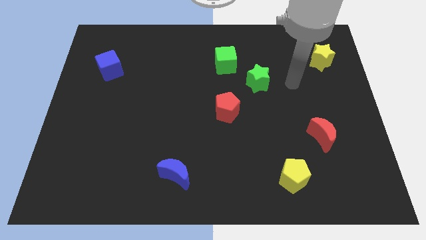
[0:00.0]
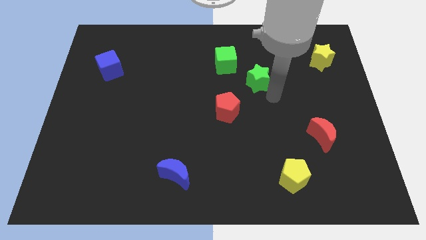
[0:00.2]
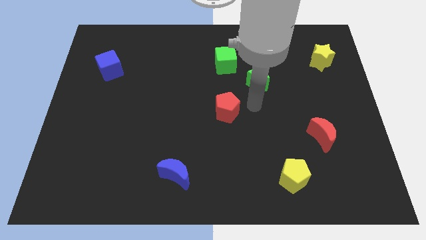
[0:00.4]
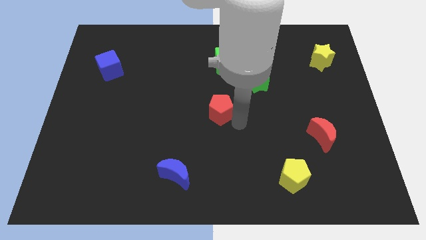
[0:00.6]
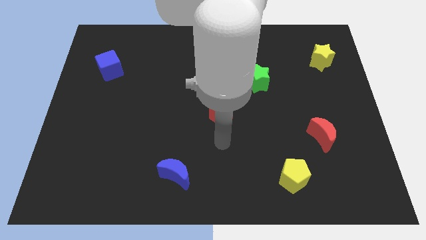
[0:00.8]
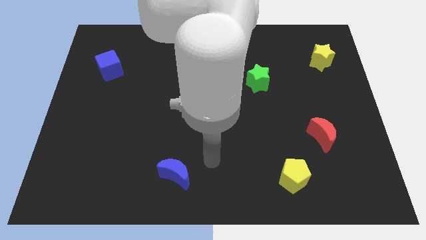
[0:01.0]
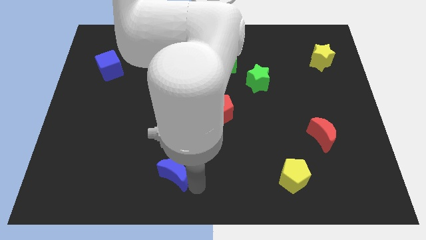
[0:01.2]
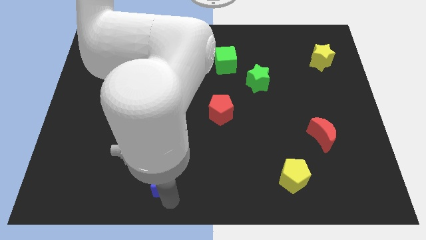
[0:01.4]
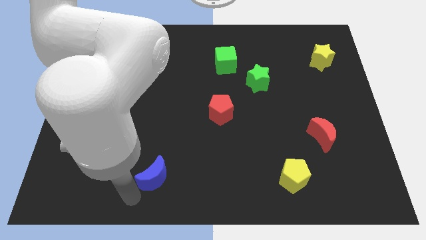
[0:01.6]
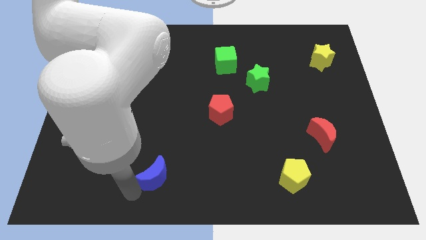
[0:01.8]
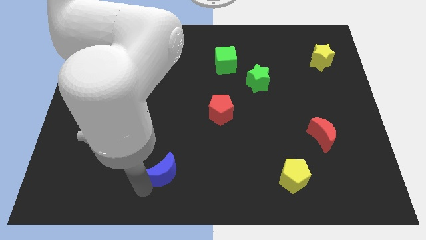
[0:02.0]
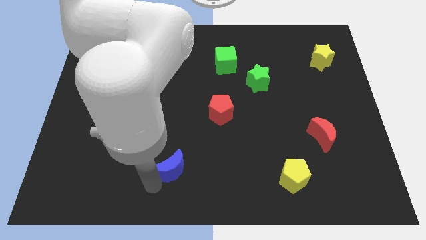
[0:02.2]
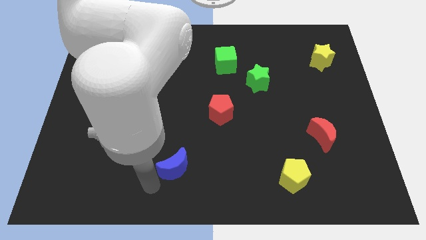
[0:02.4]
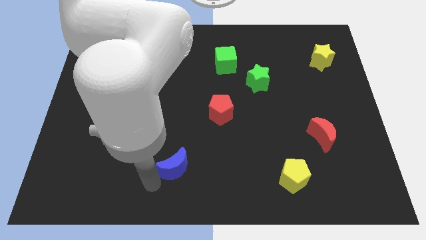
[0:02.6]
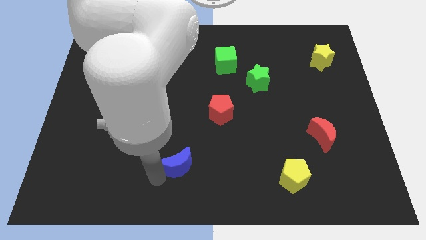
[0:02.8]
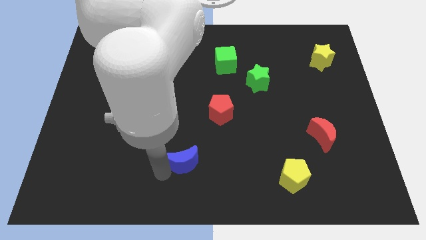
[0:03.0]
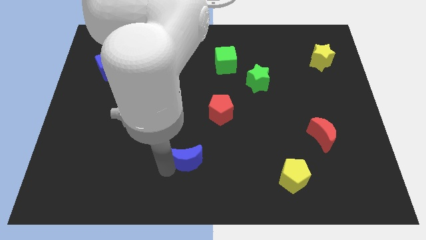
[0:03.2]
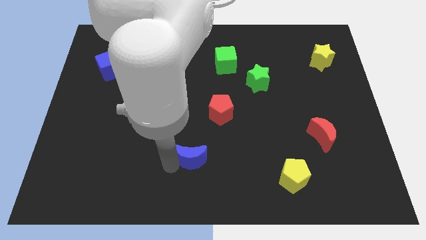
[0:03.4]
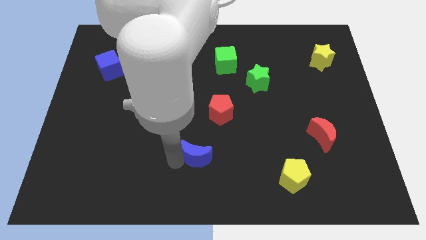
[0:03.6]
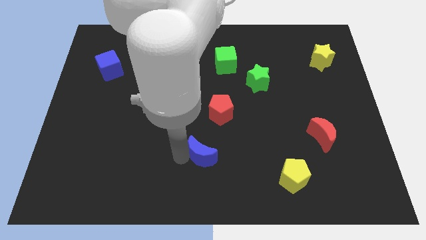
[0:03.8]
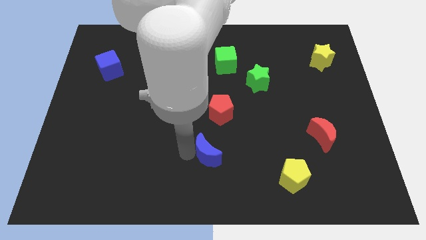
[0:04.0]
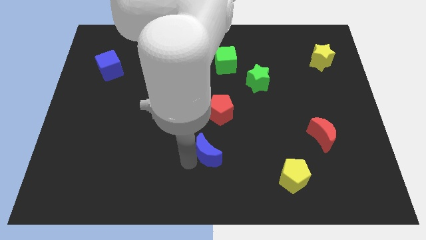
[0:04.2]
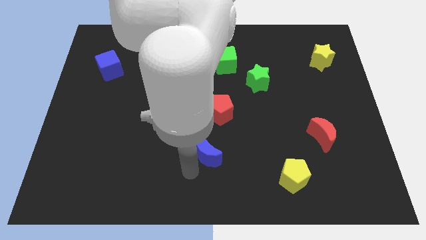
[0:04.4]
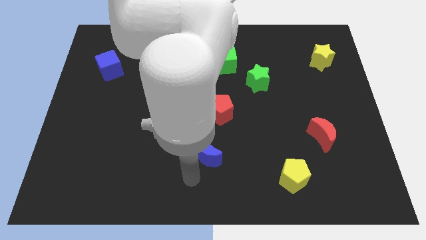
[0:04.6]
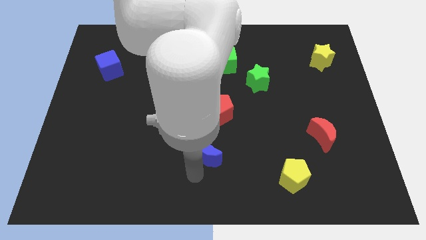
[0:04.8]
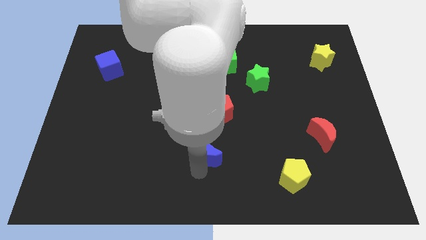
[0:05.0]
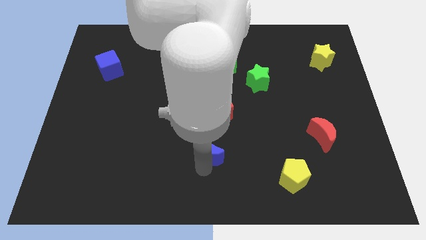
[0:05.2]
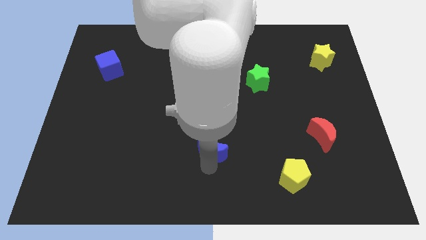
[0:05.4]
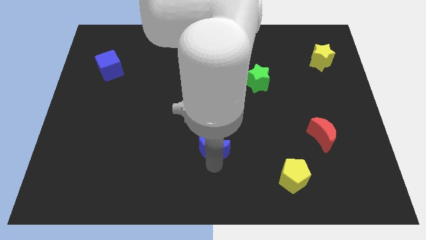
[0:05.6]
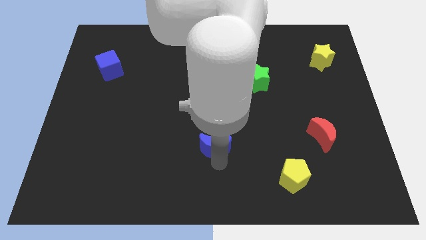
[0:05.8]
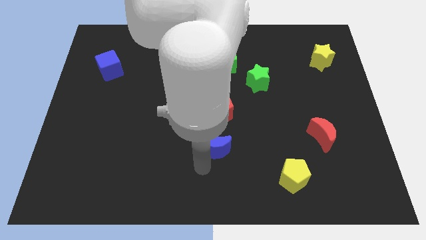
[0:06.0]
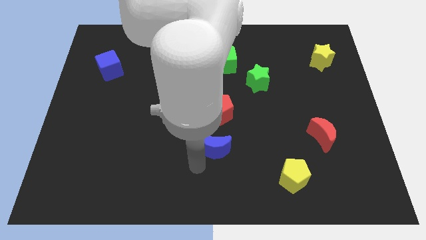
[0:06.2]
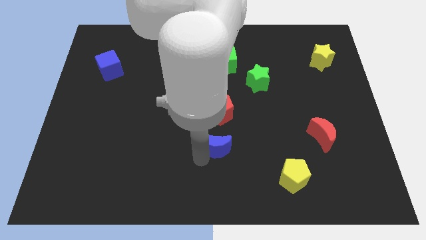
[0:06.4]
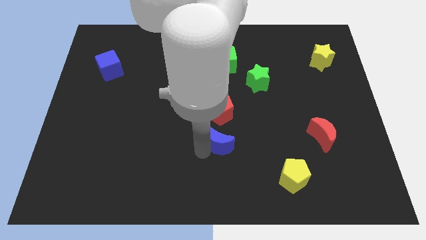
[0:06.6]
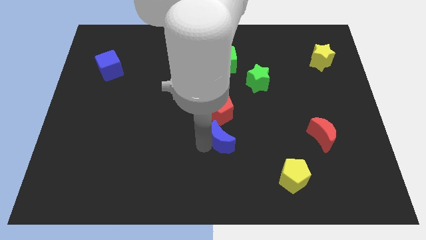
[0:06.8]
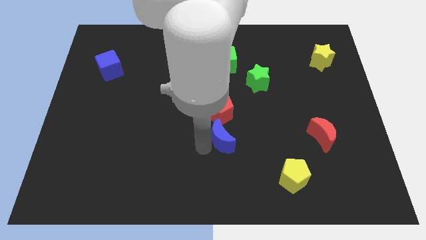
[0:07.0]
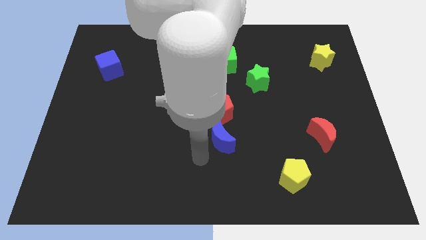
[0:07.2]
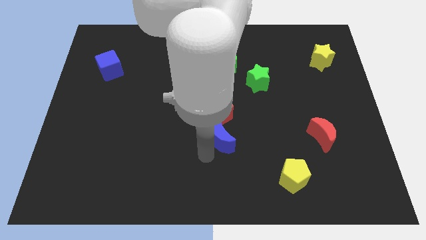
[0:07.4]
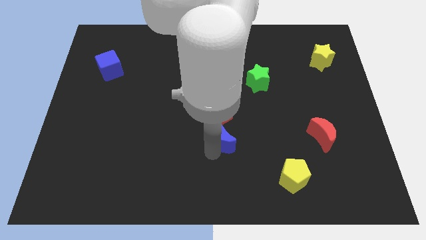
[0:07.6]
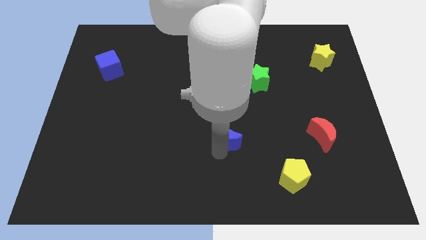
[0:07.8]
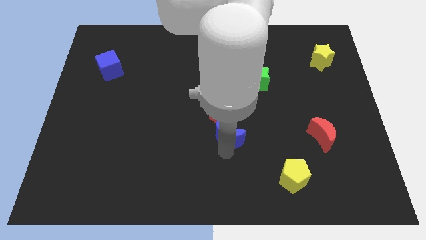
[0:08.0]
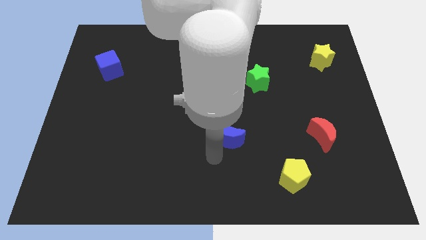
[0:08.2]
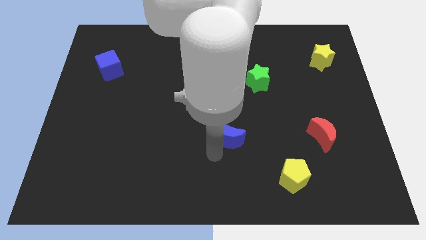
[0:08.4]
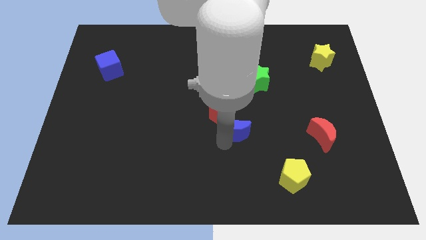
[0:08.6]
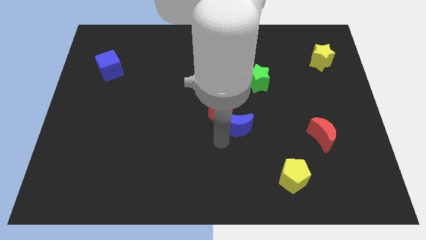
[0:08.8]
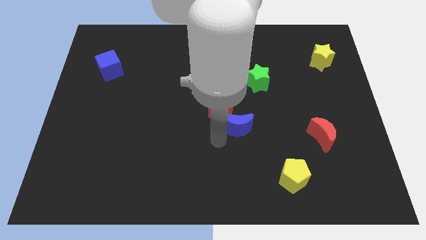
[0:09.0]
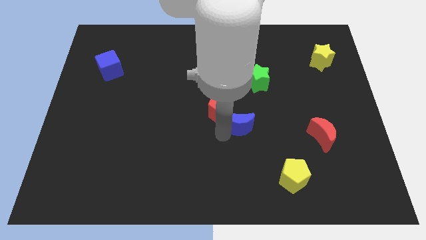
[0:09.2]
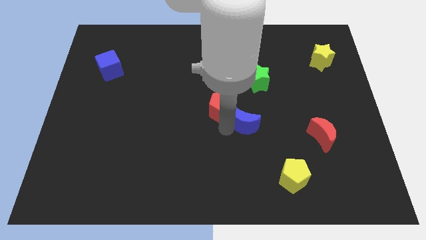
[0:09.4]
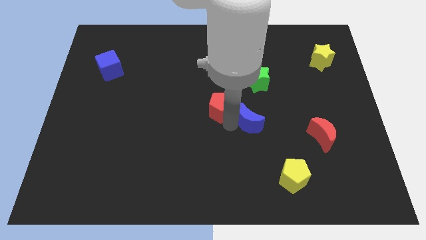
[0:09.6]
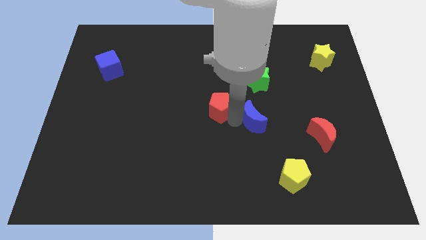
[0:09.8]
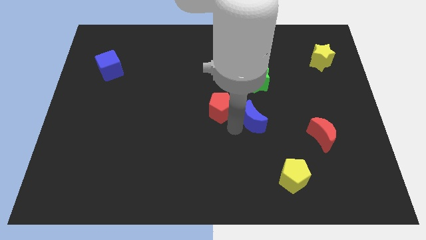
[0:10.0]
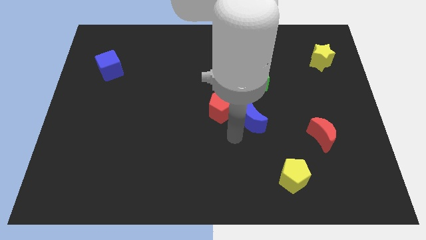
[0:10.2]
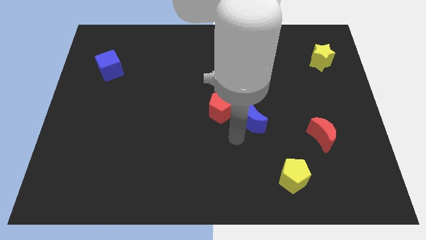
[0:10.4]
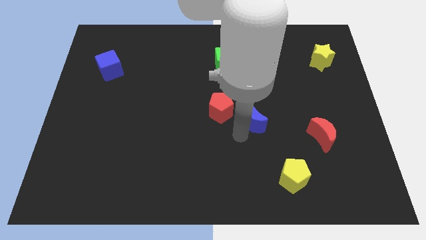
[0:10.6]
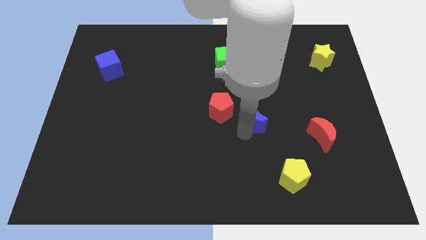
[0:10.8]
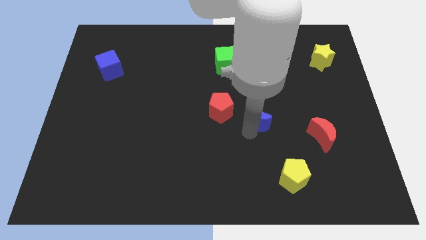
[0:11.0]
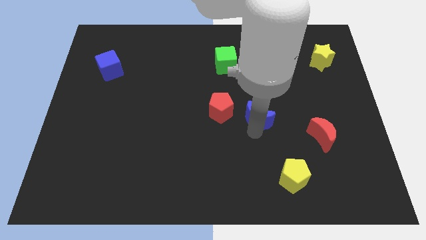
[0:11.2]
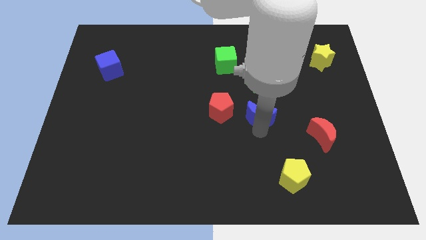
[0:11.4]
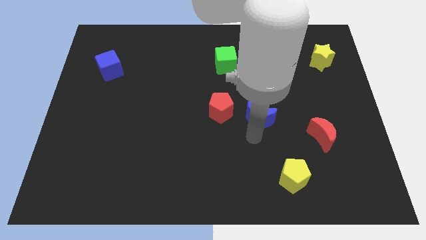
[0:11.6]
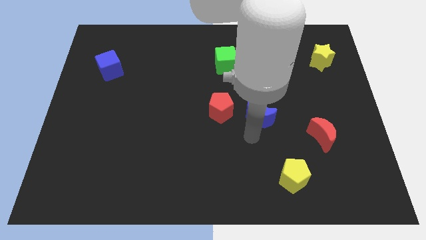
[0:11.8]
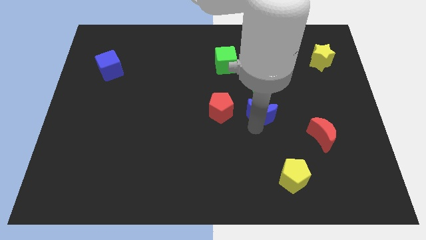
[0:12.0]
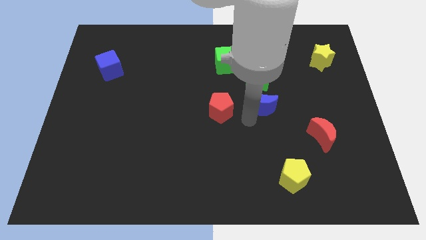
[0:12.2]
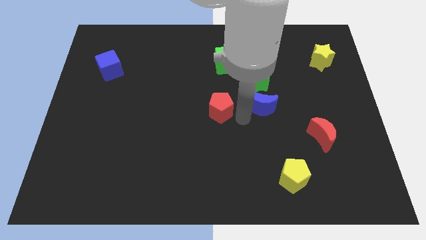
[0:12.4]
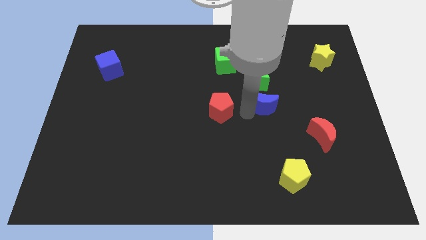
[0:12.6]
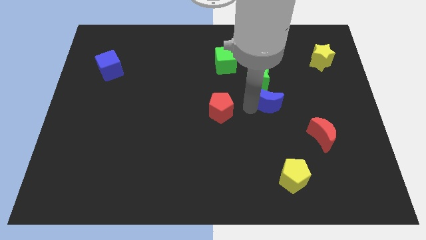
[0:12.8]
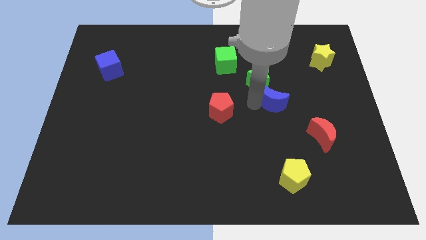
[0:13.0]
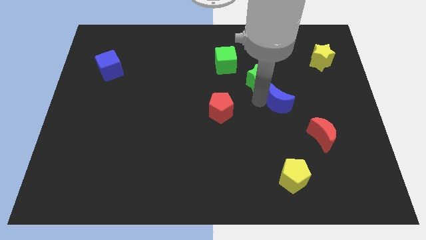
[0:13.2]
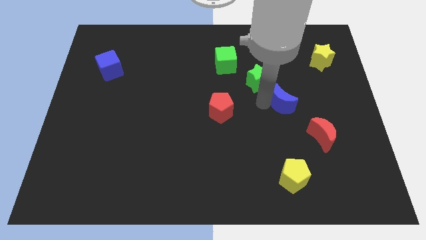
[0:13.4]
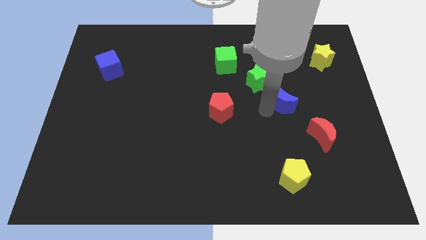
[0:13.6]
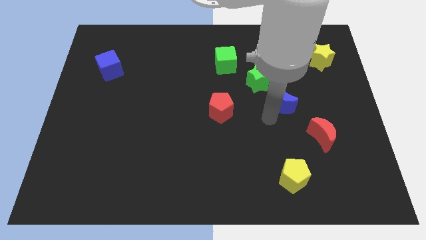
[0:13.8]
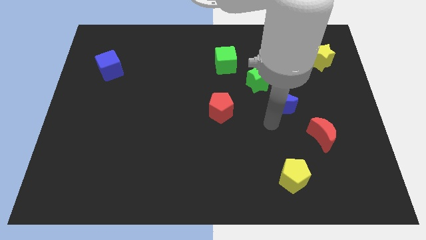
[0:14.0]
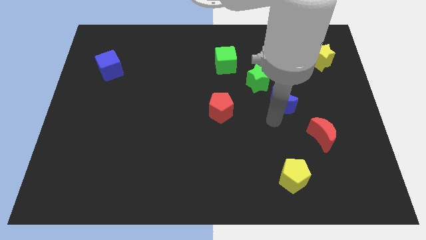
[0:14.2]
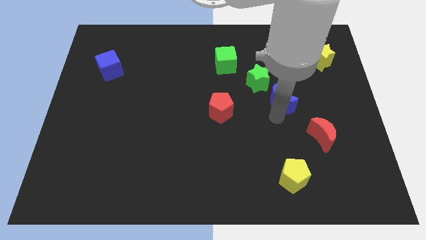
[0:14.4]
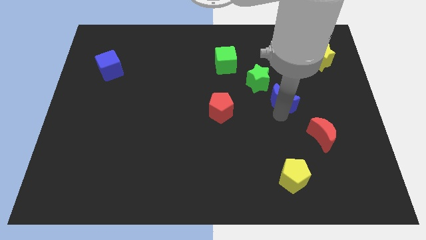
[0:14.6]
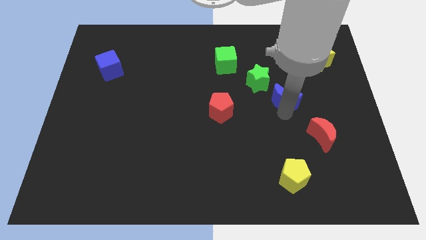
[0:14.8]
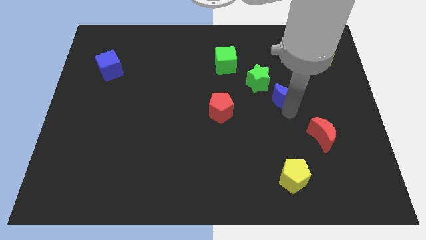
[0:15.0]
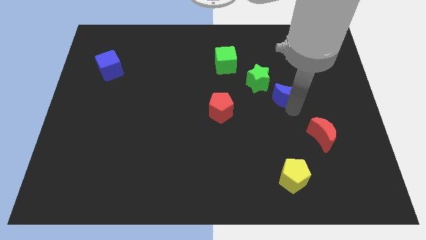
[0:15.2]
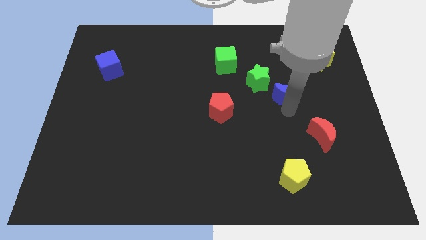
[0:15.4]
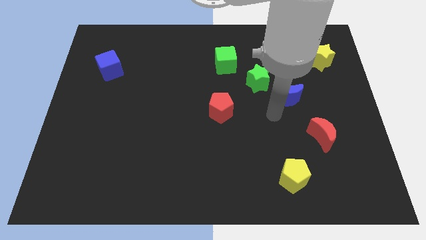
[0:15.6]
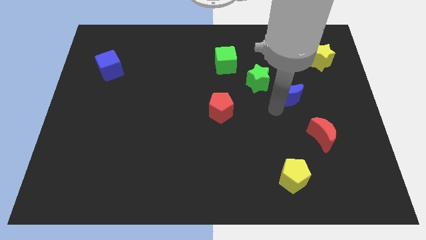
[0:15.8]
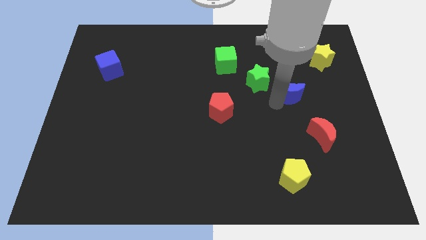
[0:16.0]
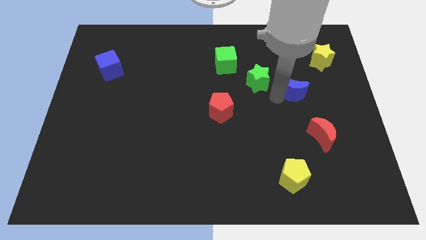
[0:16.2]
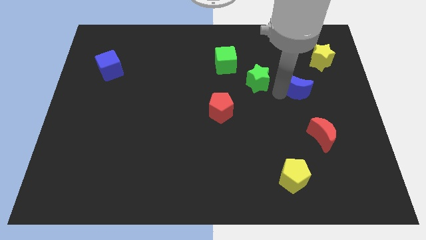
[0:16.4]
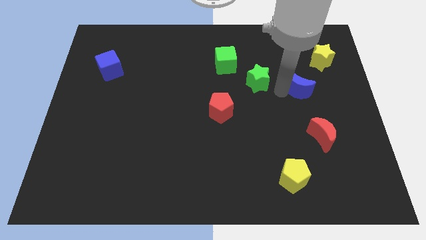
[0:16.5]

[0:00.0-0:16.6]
push the blue moon diagonally down and to the left of the yellow star
